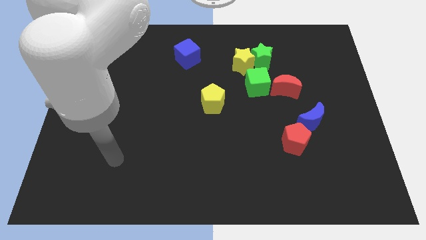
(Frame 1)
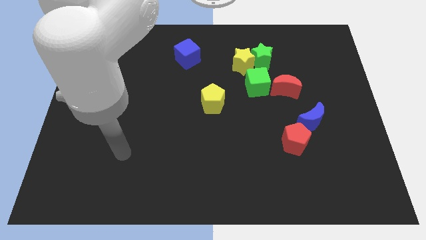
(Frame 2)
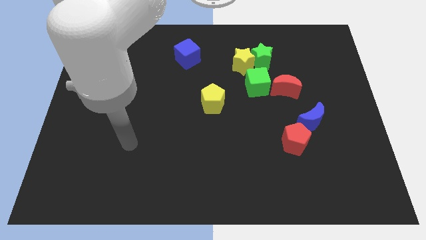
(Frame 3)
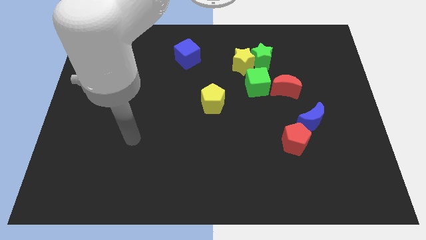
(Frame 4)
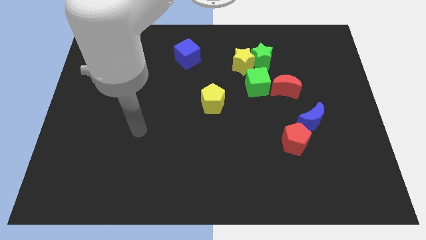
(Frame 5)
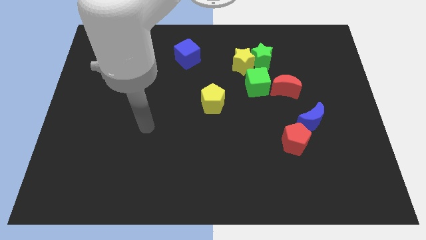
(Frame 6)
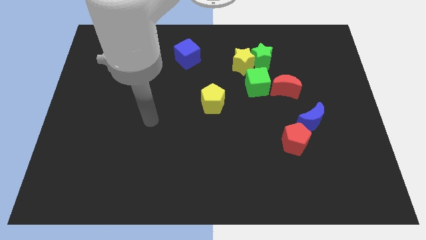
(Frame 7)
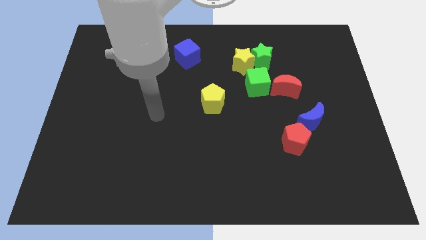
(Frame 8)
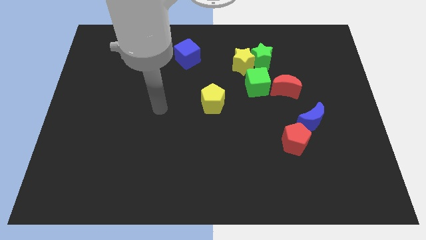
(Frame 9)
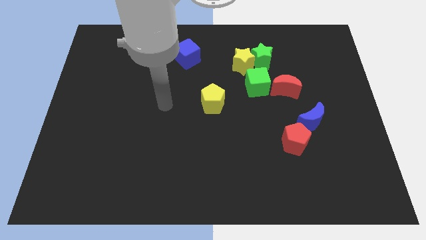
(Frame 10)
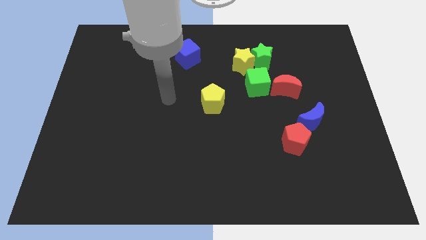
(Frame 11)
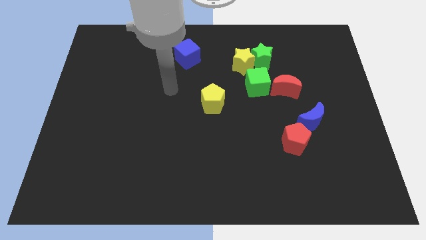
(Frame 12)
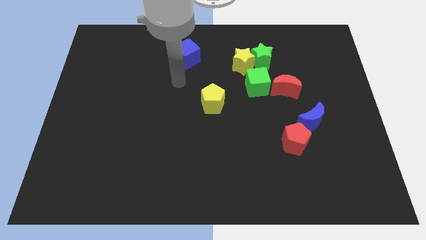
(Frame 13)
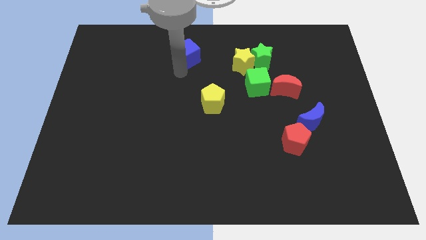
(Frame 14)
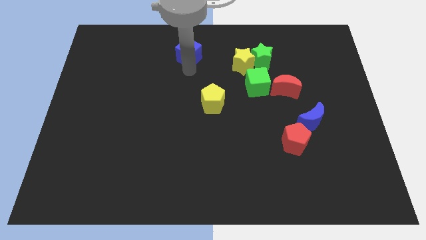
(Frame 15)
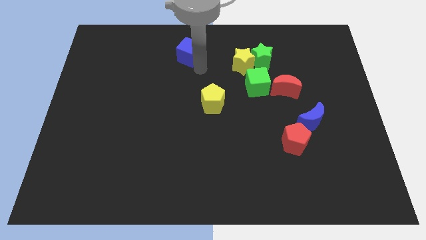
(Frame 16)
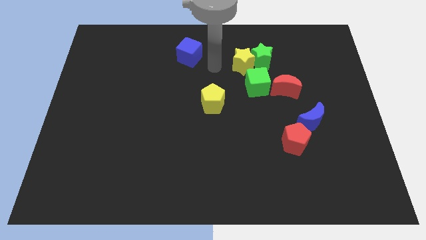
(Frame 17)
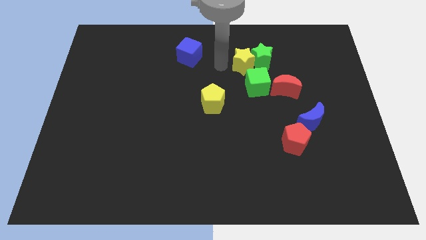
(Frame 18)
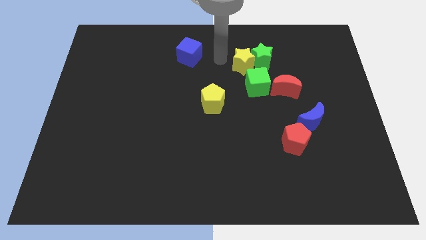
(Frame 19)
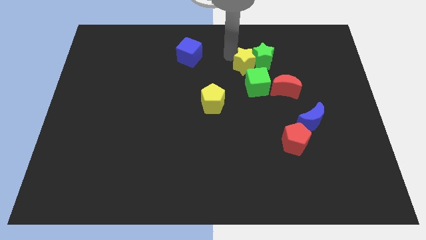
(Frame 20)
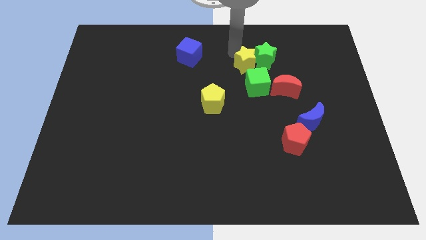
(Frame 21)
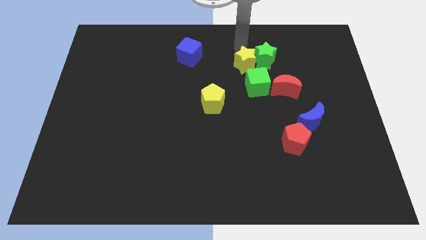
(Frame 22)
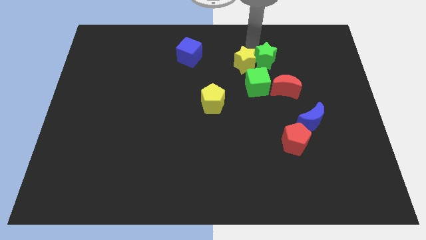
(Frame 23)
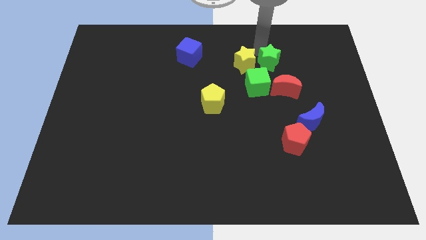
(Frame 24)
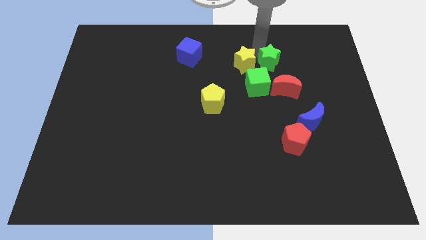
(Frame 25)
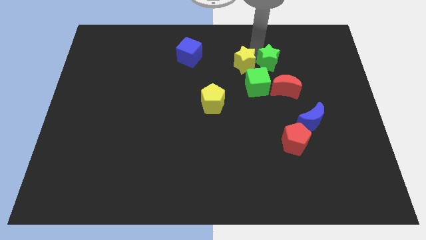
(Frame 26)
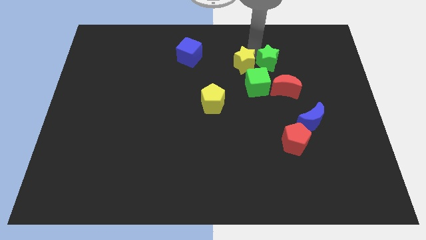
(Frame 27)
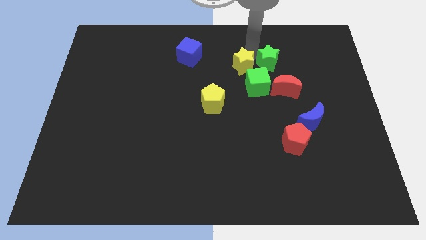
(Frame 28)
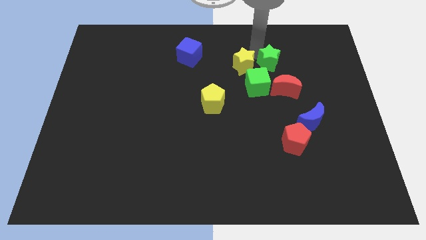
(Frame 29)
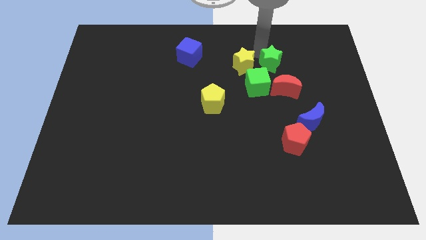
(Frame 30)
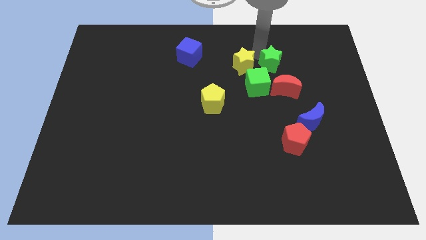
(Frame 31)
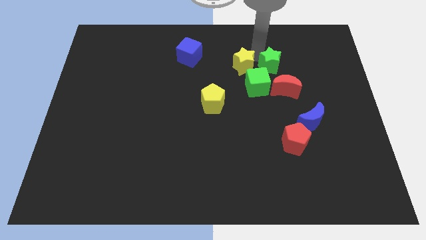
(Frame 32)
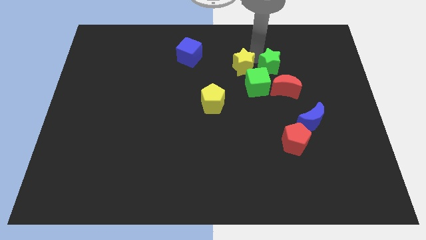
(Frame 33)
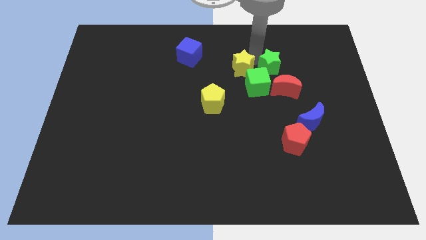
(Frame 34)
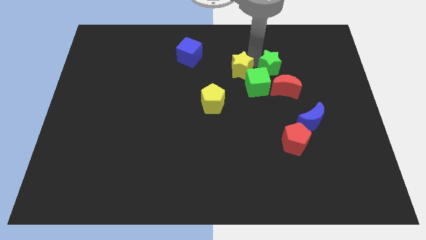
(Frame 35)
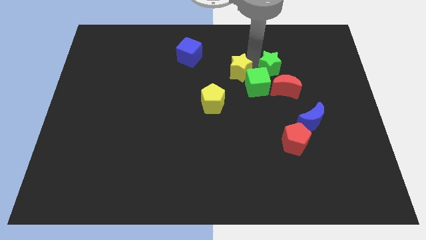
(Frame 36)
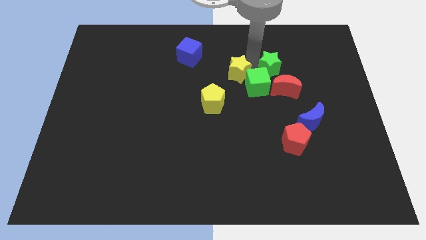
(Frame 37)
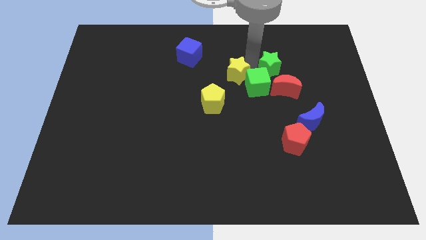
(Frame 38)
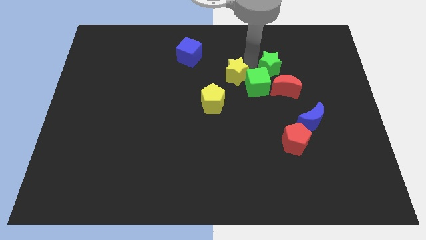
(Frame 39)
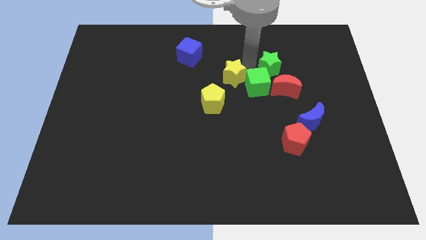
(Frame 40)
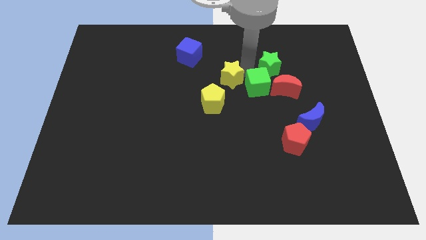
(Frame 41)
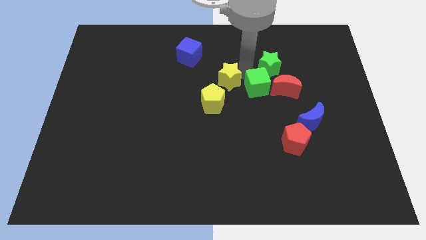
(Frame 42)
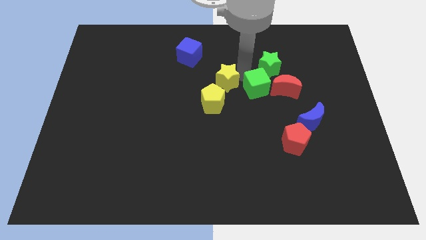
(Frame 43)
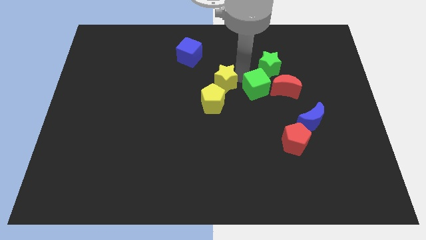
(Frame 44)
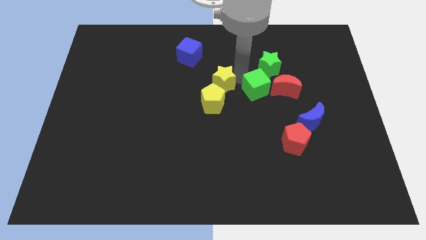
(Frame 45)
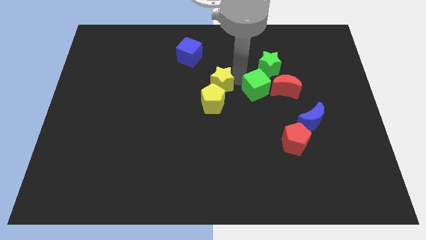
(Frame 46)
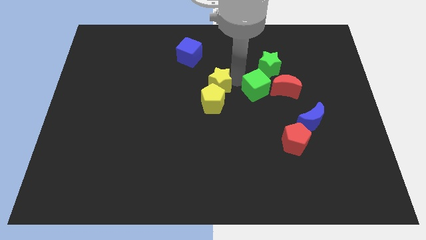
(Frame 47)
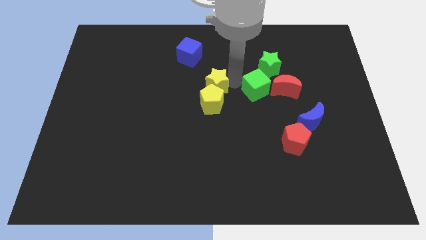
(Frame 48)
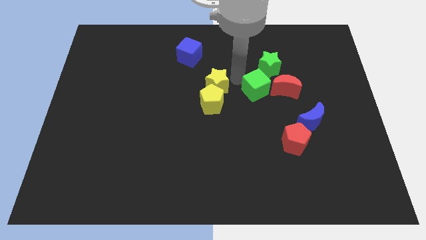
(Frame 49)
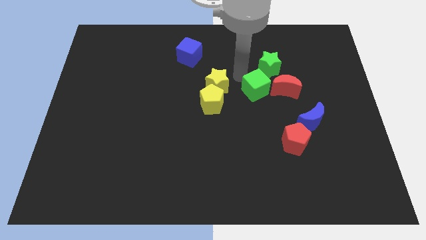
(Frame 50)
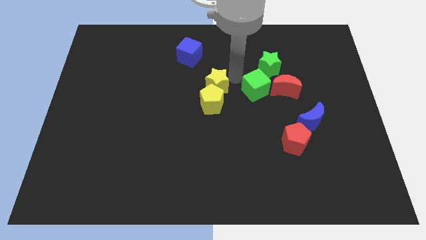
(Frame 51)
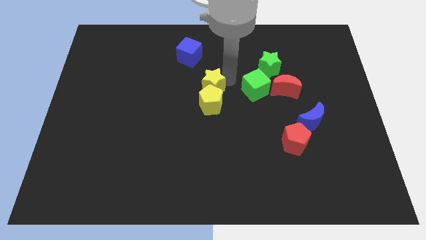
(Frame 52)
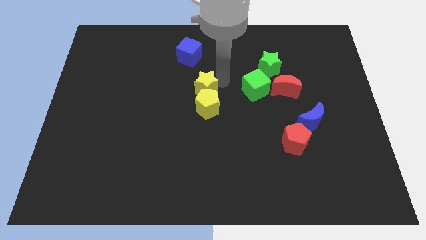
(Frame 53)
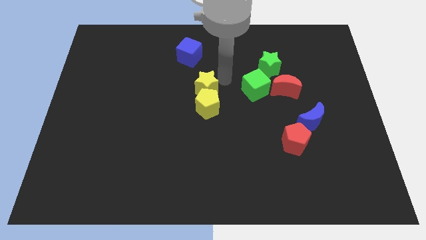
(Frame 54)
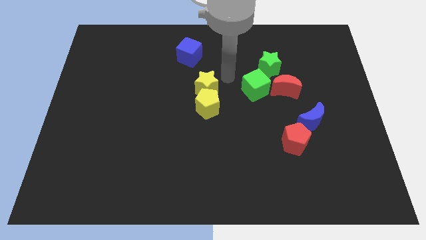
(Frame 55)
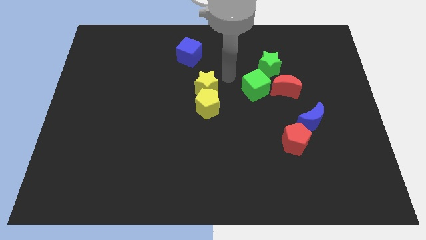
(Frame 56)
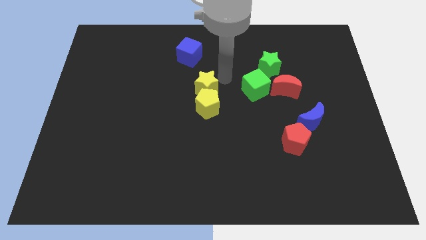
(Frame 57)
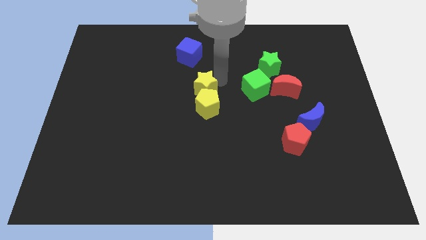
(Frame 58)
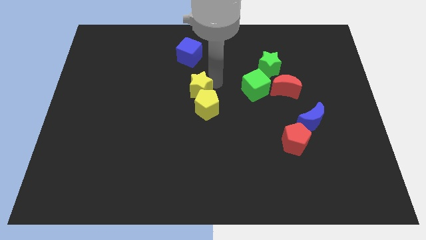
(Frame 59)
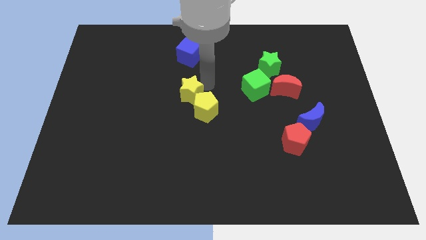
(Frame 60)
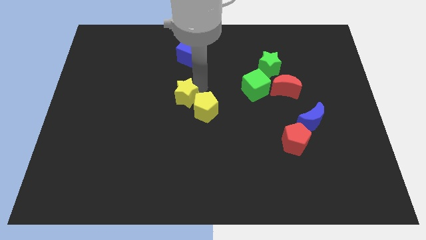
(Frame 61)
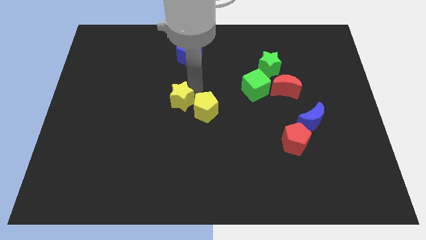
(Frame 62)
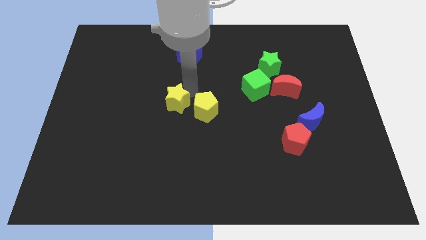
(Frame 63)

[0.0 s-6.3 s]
move the yellow star down and to the left

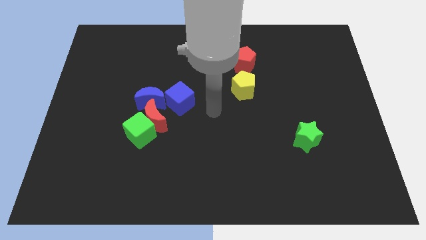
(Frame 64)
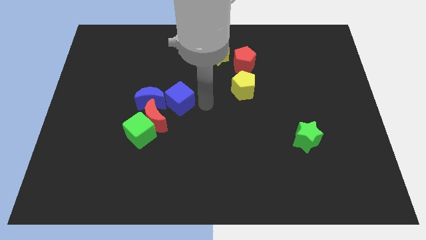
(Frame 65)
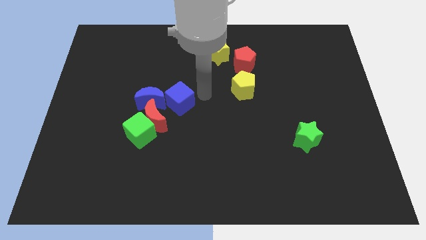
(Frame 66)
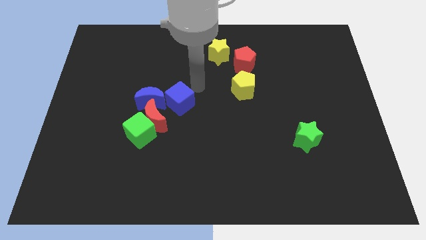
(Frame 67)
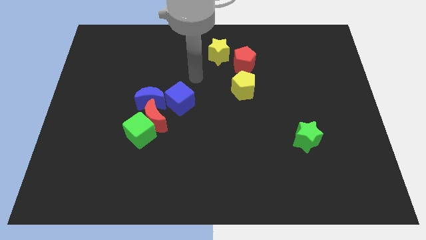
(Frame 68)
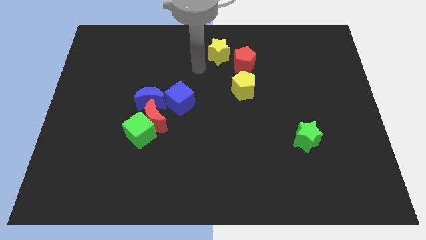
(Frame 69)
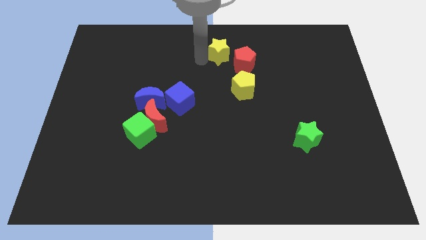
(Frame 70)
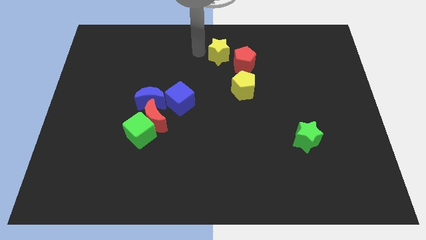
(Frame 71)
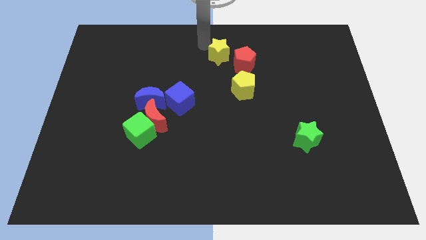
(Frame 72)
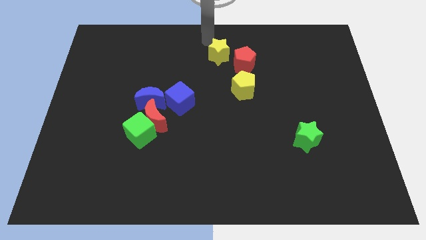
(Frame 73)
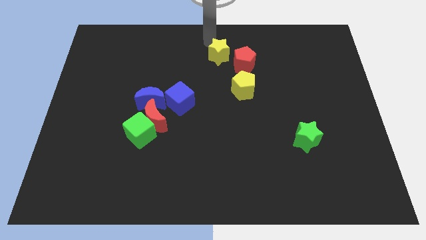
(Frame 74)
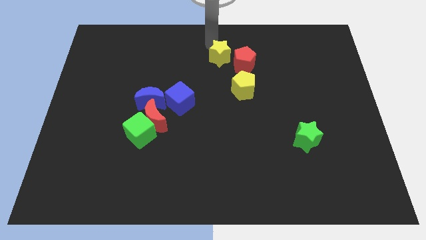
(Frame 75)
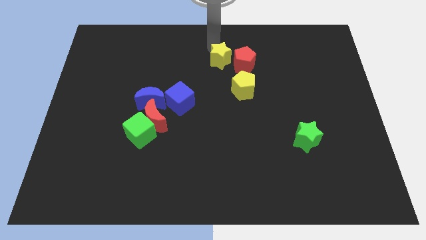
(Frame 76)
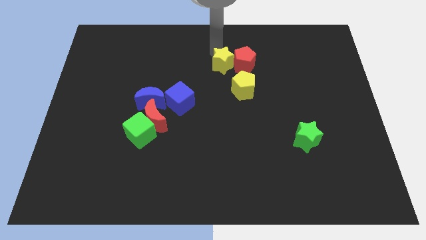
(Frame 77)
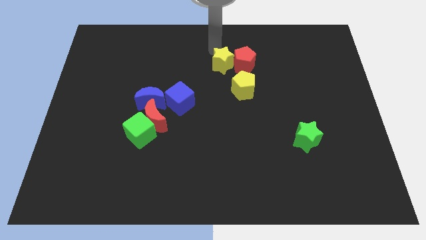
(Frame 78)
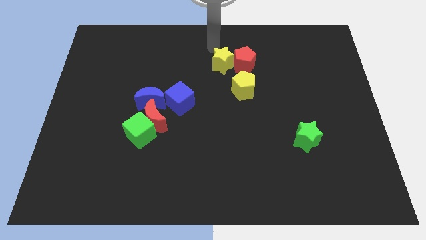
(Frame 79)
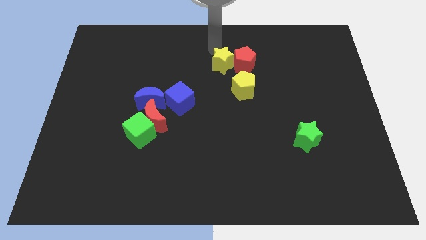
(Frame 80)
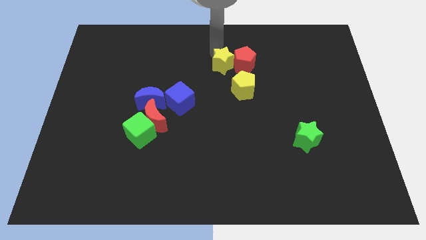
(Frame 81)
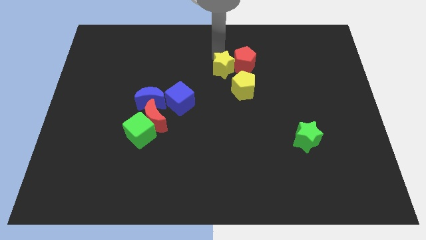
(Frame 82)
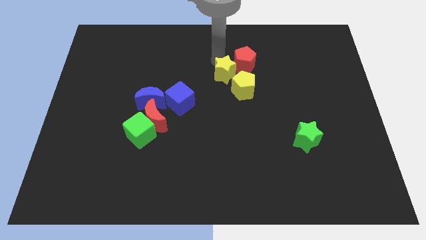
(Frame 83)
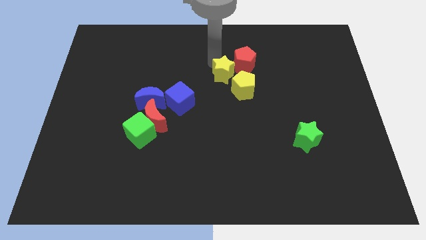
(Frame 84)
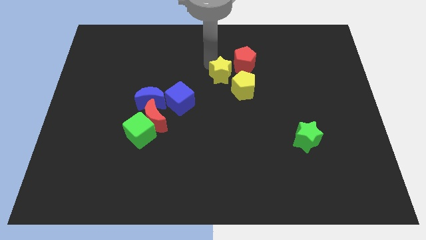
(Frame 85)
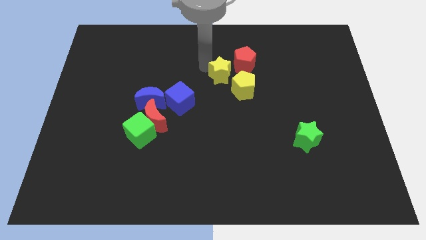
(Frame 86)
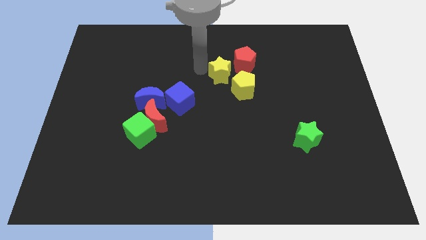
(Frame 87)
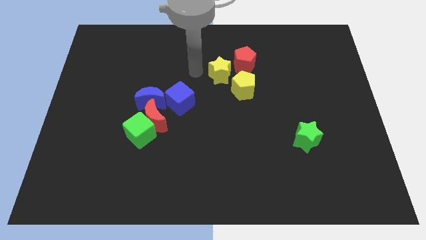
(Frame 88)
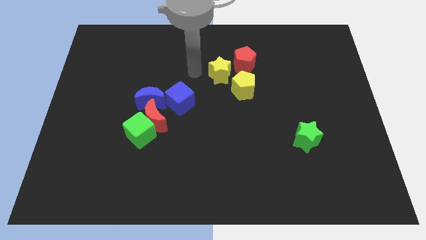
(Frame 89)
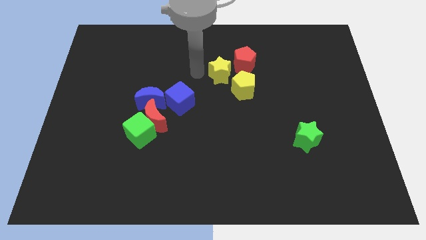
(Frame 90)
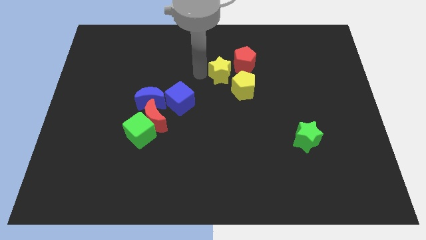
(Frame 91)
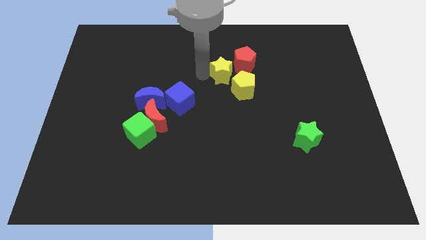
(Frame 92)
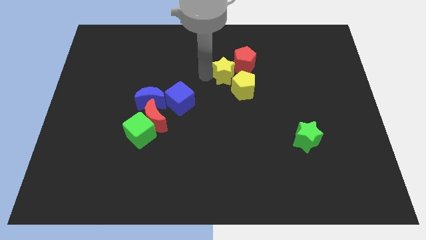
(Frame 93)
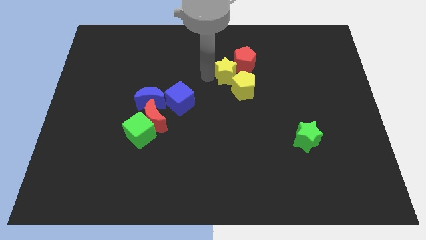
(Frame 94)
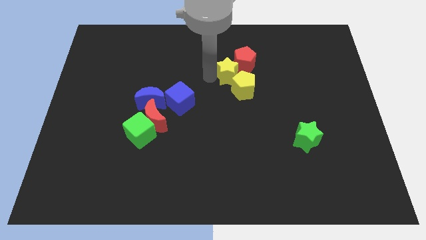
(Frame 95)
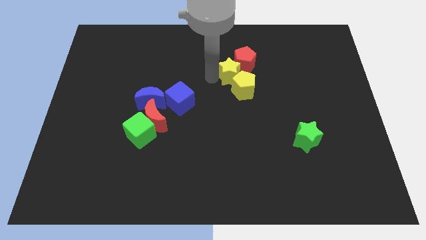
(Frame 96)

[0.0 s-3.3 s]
move the yellow star a little down and to the right
